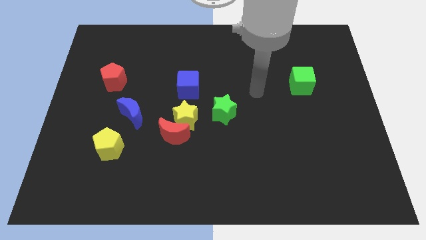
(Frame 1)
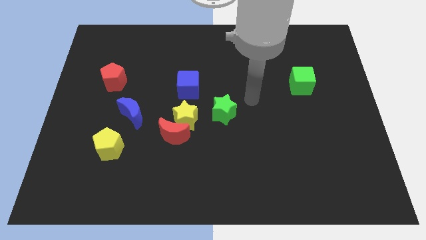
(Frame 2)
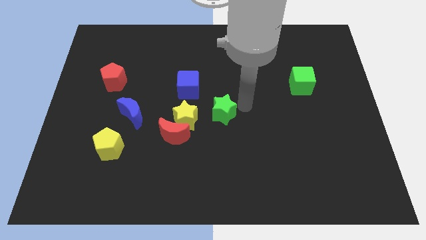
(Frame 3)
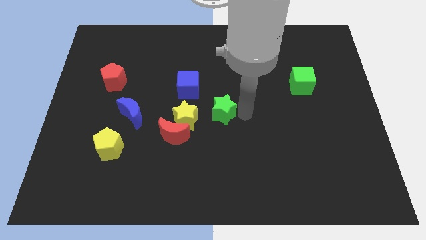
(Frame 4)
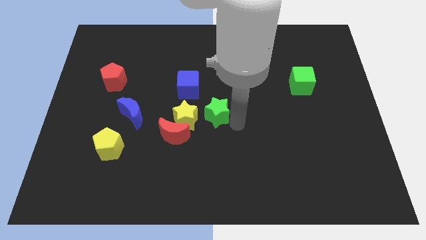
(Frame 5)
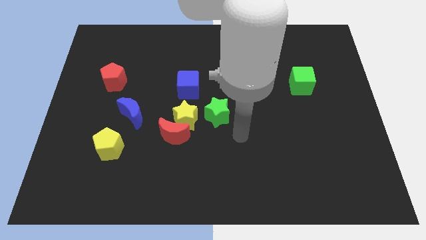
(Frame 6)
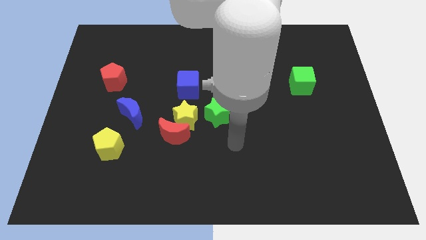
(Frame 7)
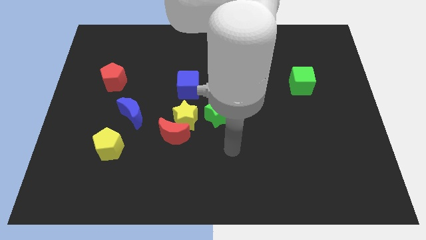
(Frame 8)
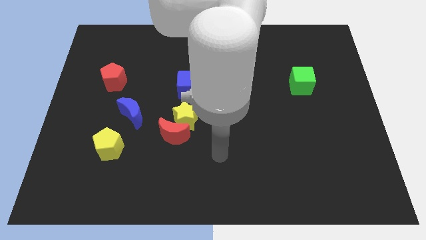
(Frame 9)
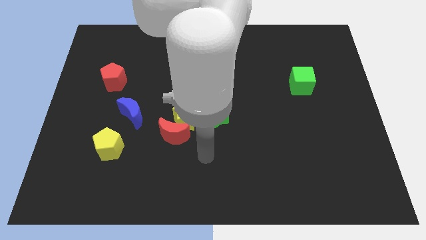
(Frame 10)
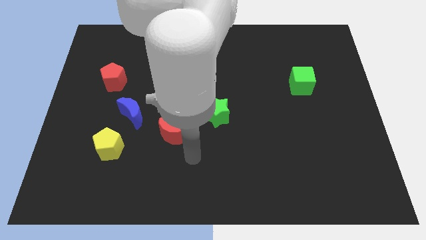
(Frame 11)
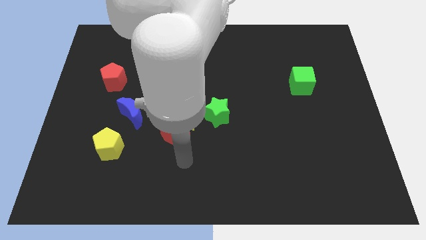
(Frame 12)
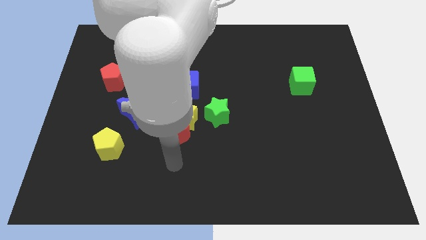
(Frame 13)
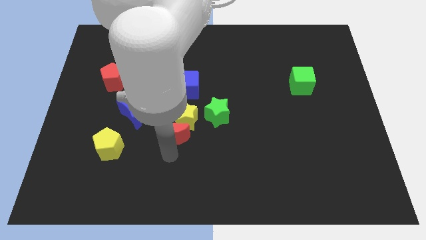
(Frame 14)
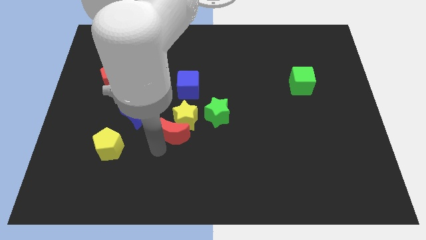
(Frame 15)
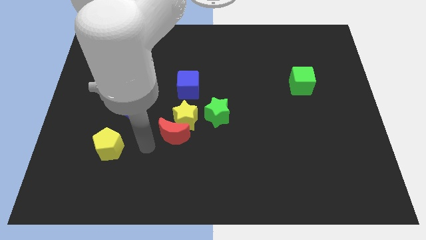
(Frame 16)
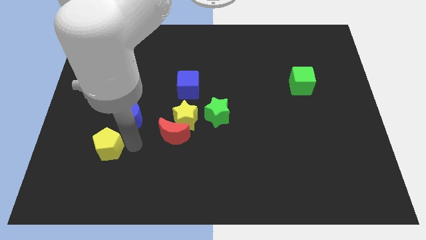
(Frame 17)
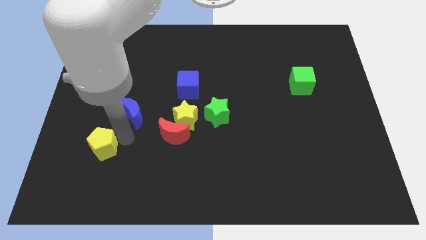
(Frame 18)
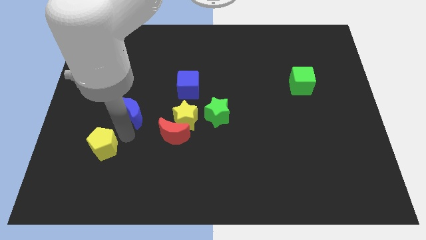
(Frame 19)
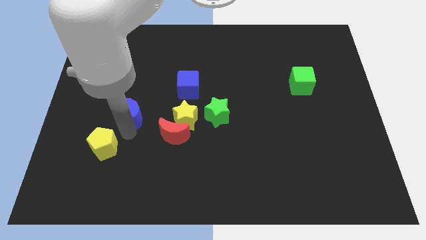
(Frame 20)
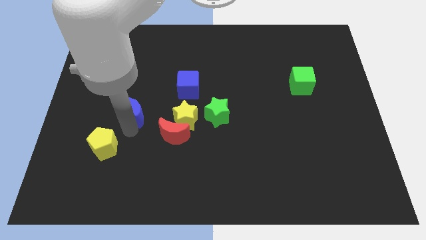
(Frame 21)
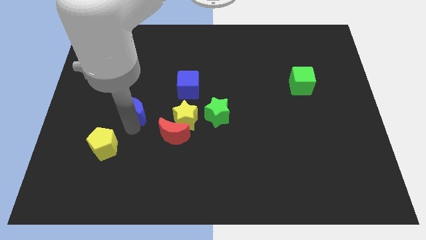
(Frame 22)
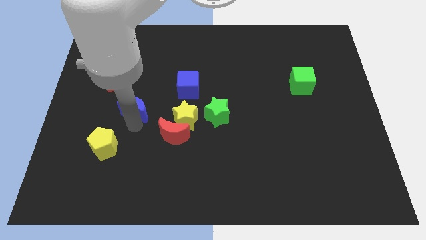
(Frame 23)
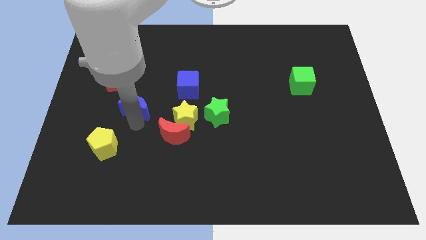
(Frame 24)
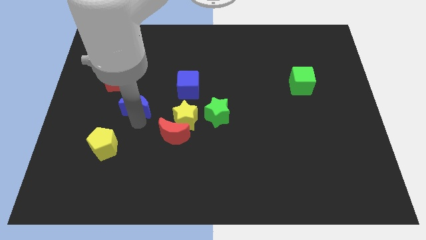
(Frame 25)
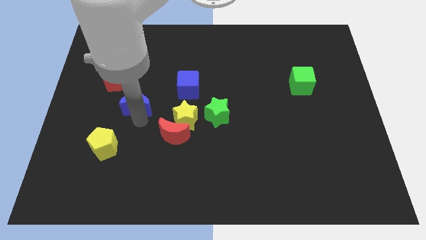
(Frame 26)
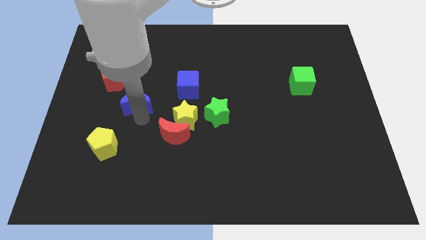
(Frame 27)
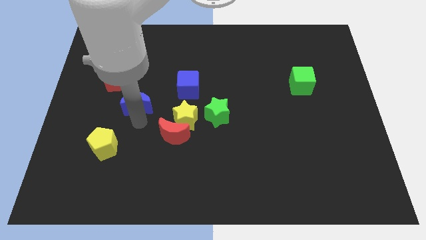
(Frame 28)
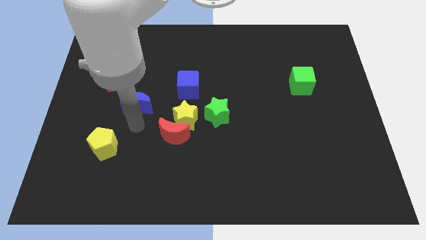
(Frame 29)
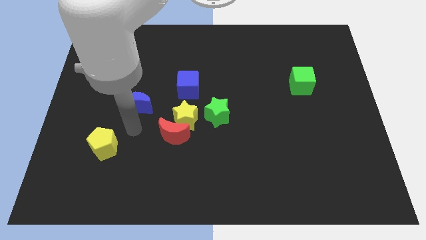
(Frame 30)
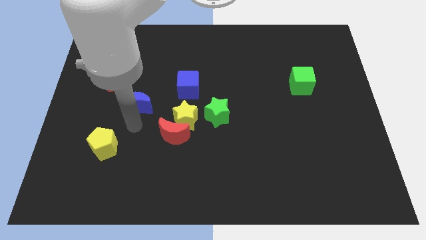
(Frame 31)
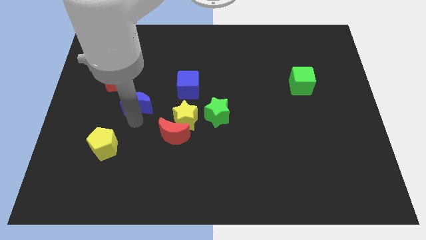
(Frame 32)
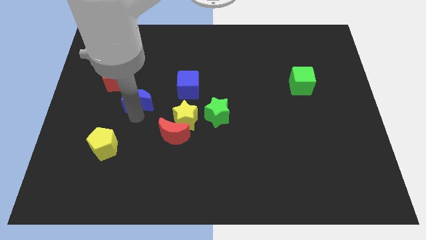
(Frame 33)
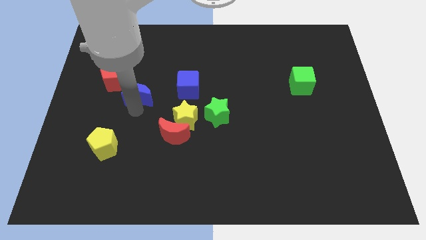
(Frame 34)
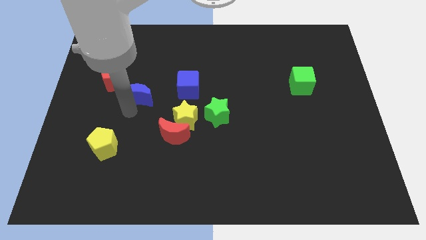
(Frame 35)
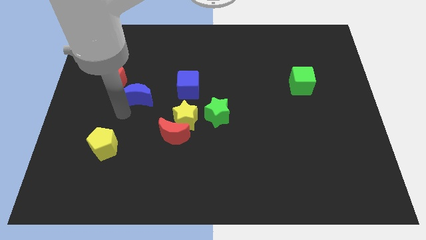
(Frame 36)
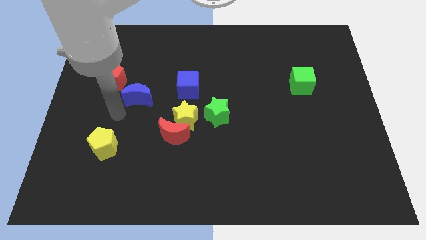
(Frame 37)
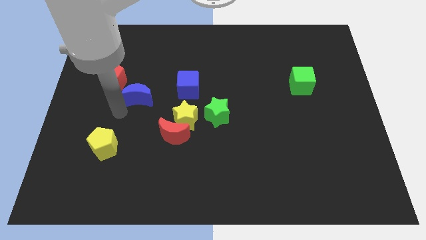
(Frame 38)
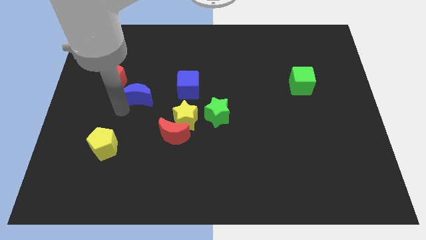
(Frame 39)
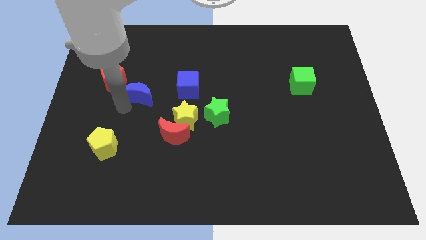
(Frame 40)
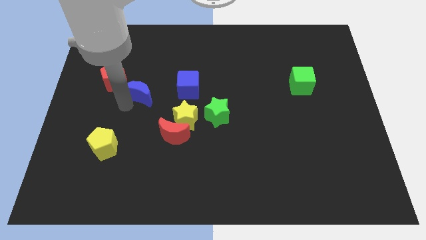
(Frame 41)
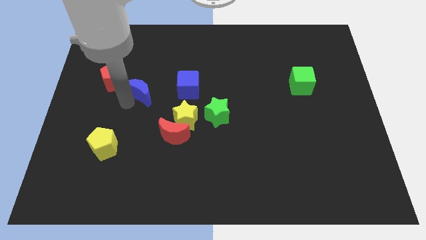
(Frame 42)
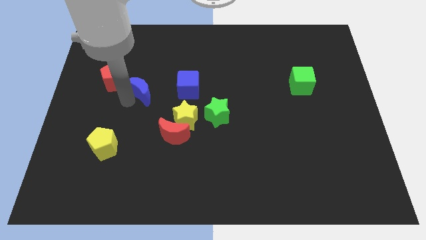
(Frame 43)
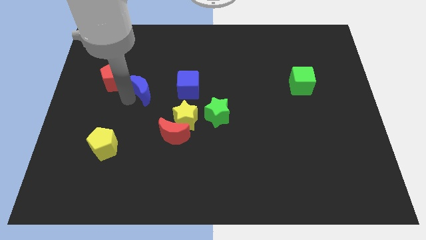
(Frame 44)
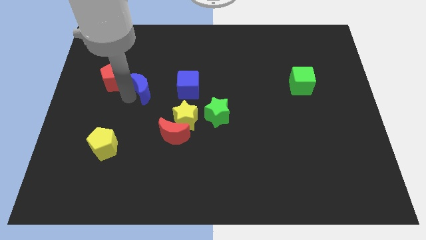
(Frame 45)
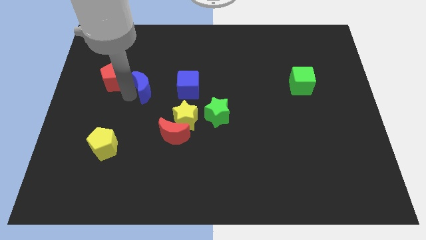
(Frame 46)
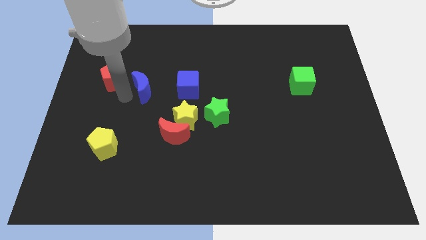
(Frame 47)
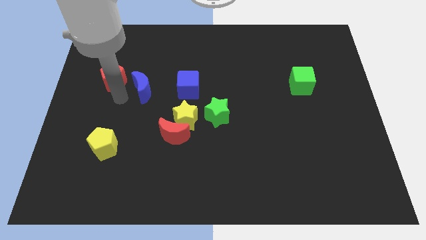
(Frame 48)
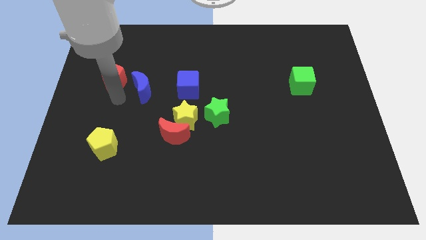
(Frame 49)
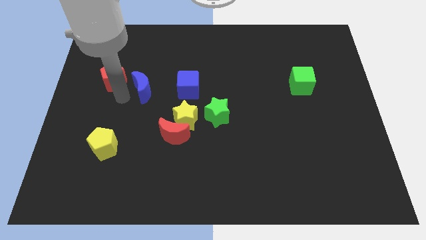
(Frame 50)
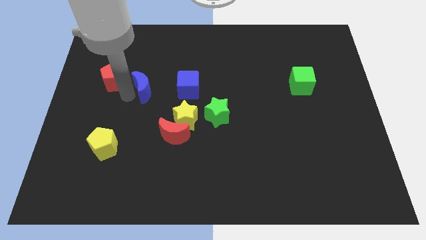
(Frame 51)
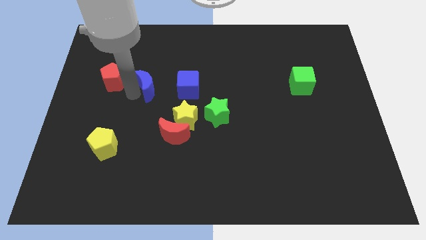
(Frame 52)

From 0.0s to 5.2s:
slightly push the blue moon upwards and right diagonally

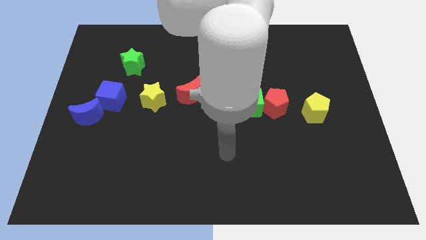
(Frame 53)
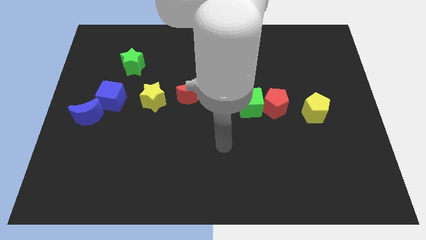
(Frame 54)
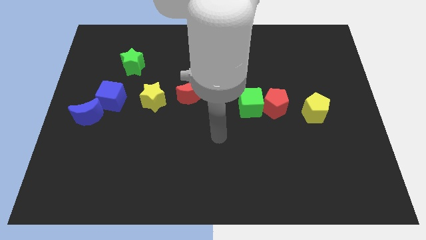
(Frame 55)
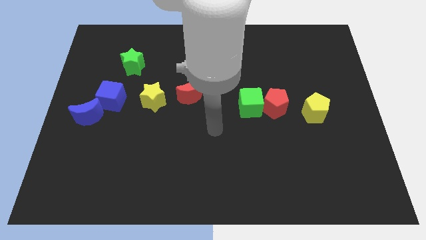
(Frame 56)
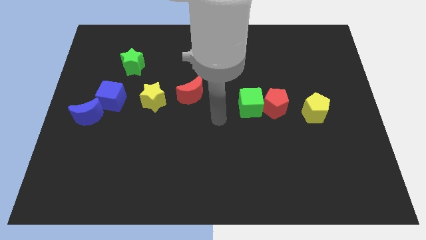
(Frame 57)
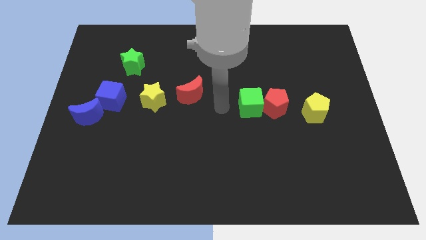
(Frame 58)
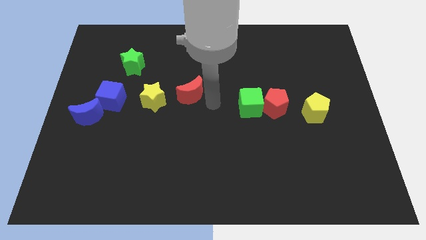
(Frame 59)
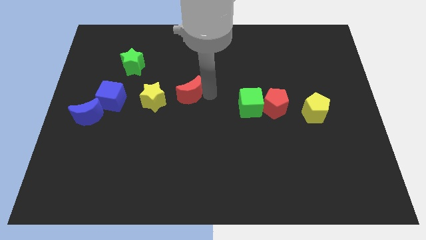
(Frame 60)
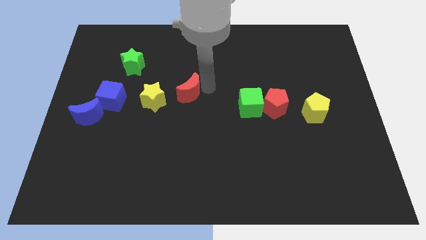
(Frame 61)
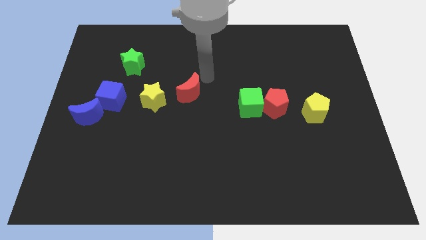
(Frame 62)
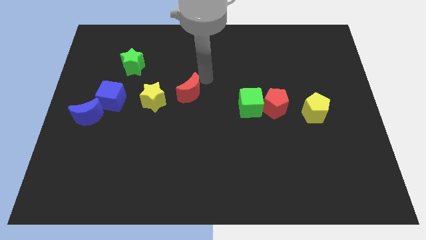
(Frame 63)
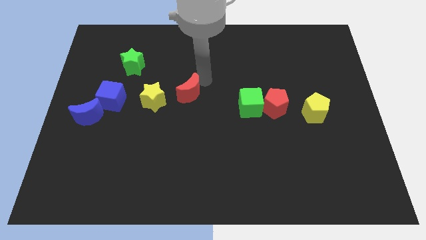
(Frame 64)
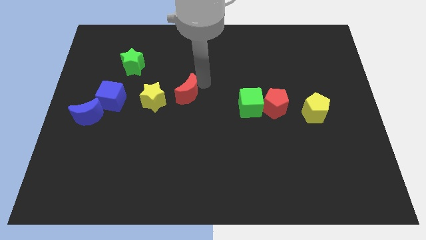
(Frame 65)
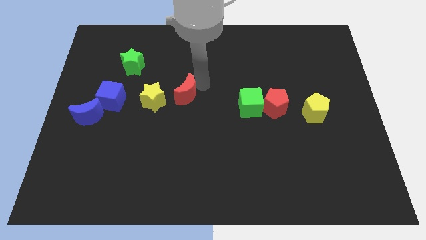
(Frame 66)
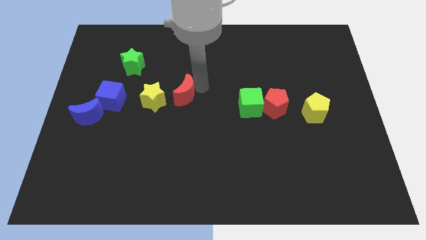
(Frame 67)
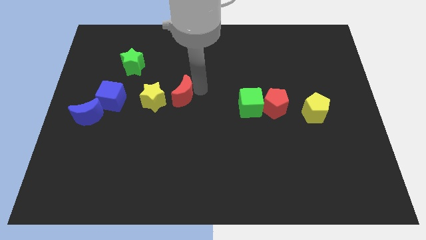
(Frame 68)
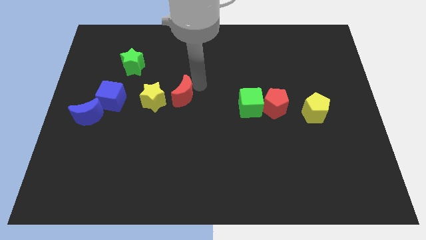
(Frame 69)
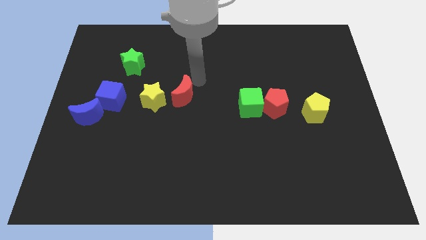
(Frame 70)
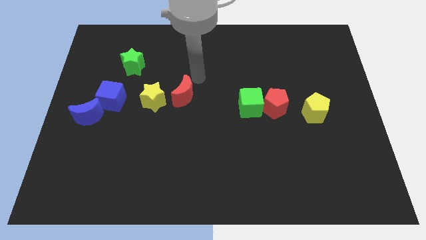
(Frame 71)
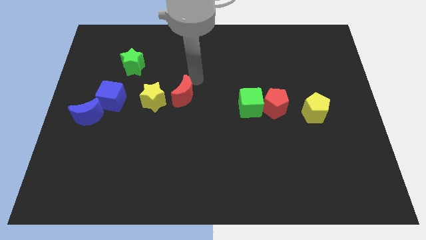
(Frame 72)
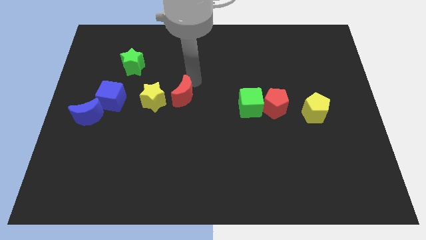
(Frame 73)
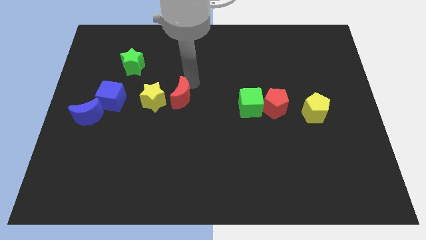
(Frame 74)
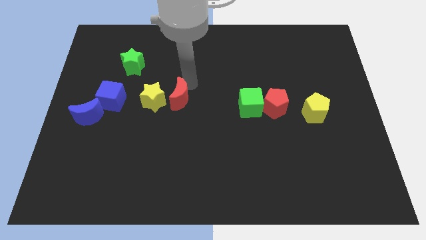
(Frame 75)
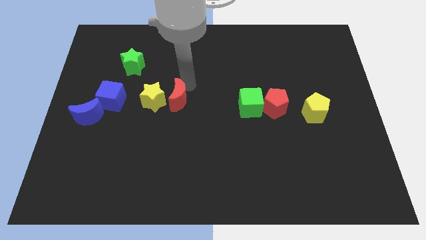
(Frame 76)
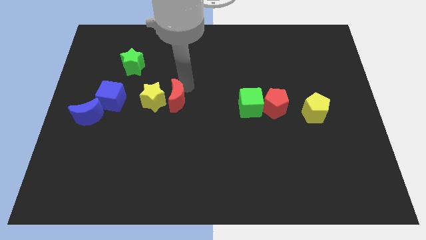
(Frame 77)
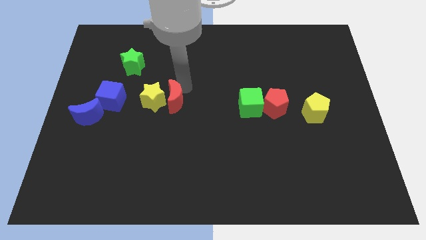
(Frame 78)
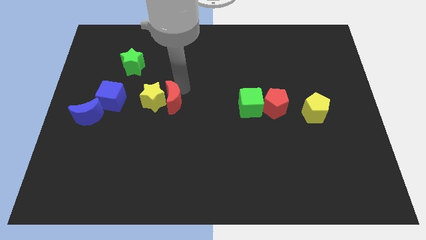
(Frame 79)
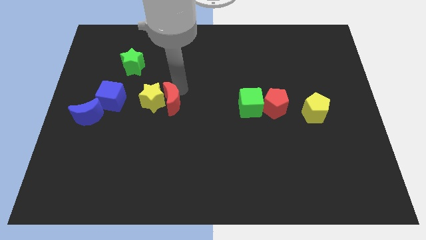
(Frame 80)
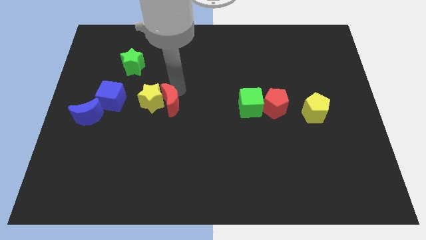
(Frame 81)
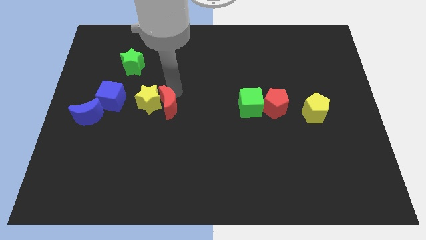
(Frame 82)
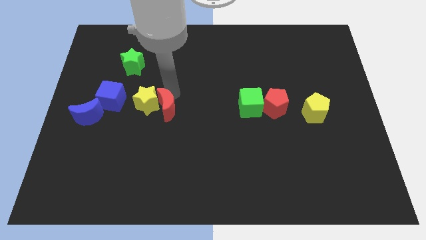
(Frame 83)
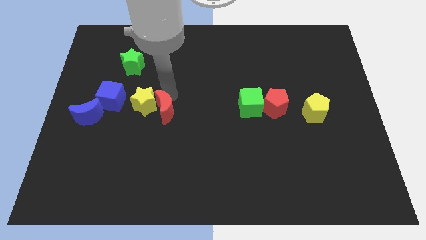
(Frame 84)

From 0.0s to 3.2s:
push the red moon slightly downwards and then left
